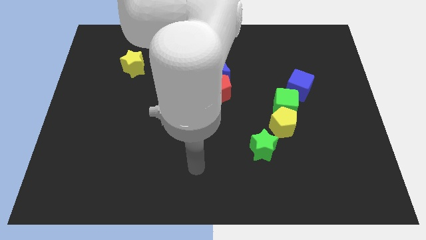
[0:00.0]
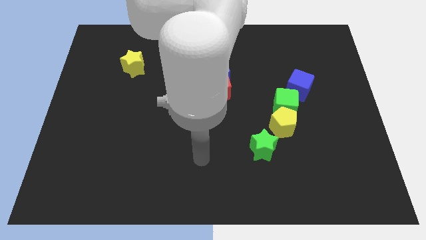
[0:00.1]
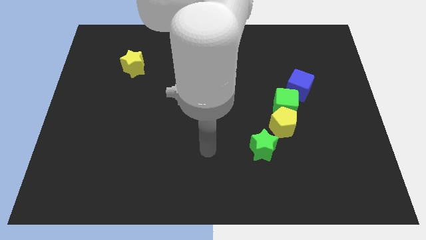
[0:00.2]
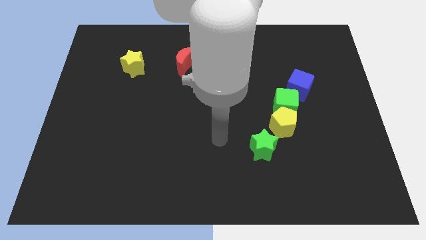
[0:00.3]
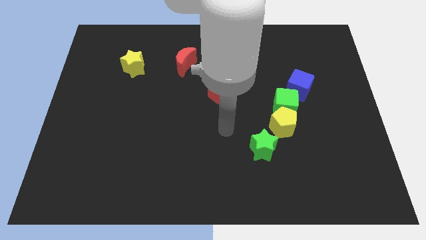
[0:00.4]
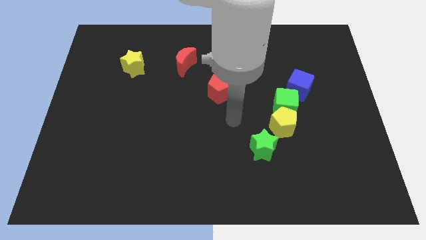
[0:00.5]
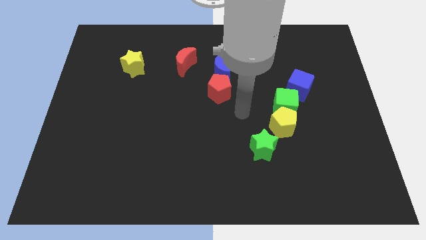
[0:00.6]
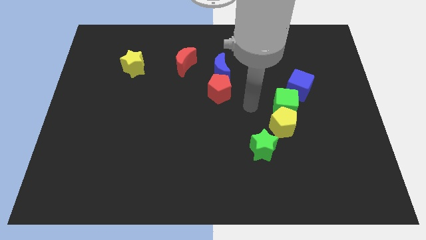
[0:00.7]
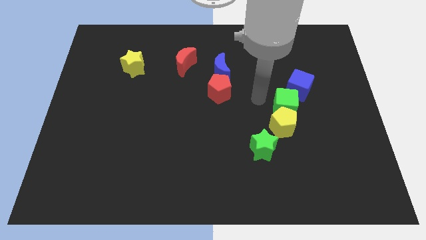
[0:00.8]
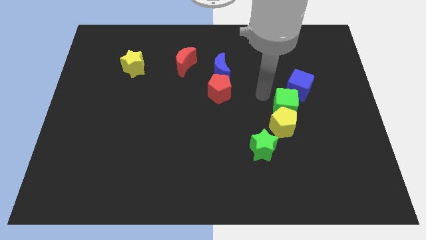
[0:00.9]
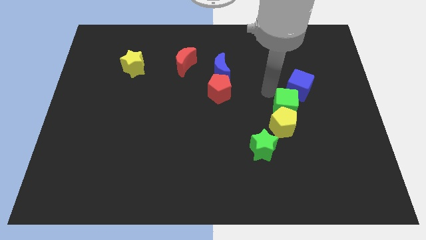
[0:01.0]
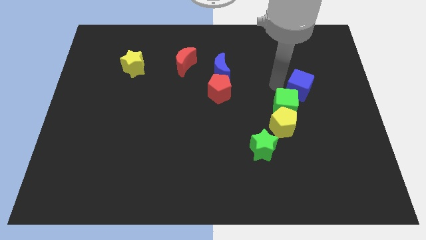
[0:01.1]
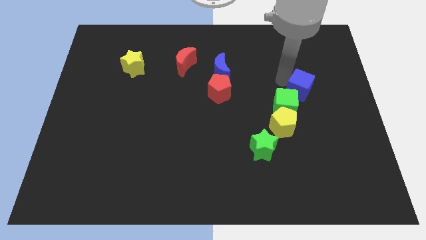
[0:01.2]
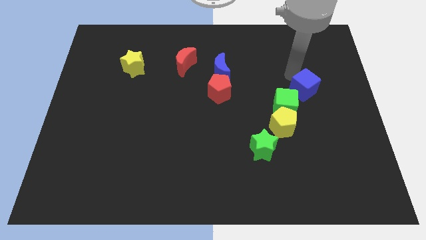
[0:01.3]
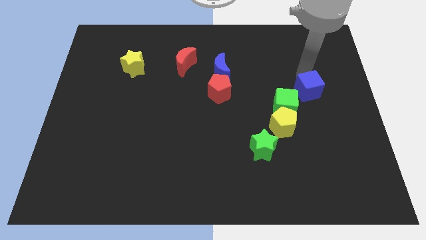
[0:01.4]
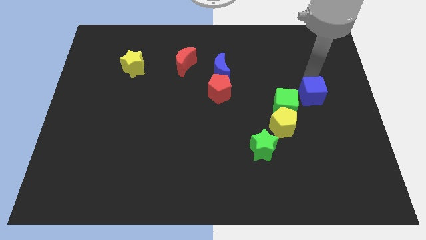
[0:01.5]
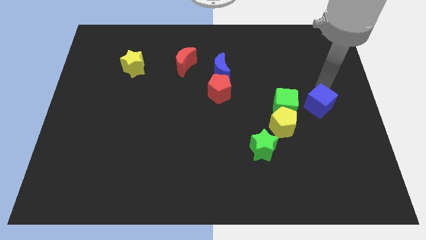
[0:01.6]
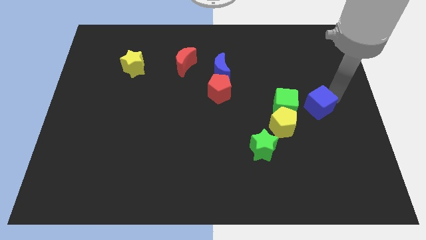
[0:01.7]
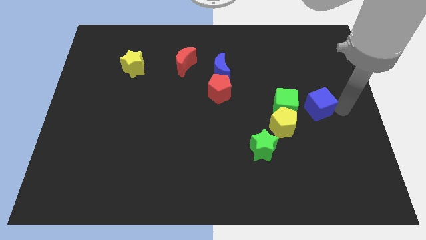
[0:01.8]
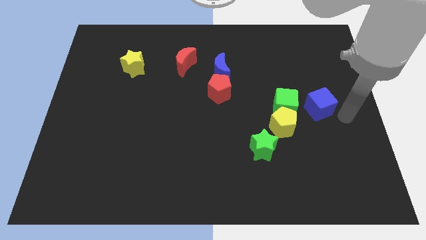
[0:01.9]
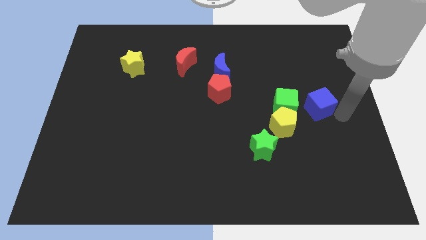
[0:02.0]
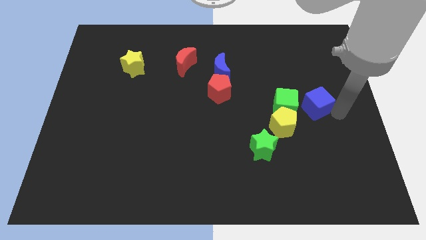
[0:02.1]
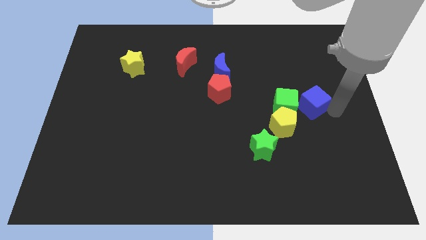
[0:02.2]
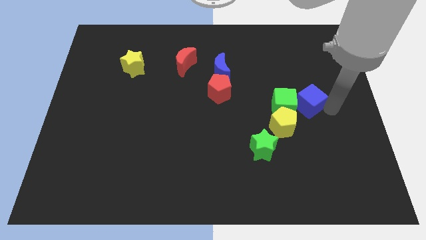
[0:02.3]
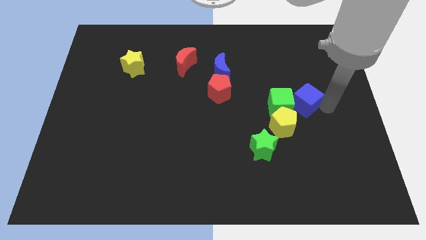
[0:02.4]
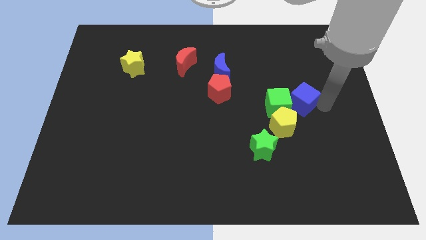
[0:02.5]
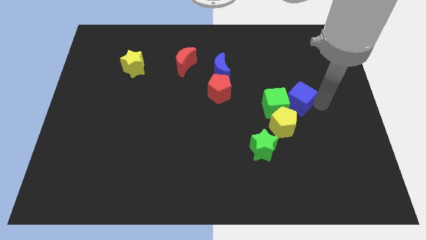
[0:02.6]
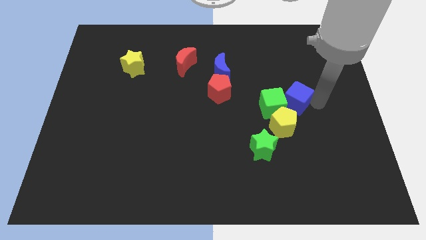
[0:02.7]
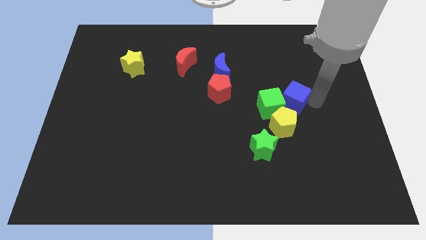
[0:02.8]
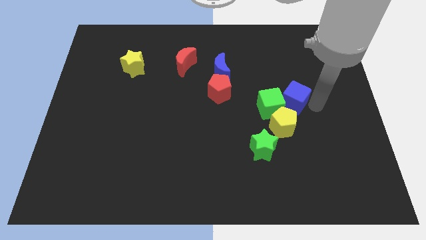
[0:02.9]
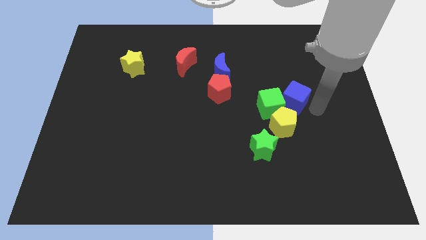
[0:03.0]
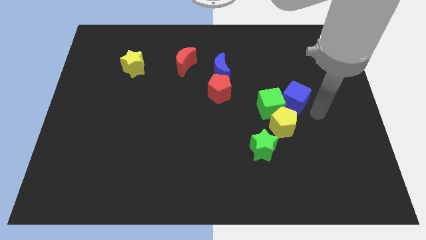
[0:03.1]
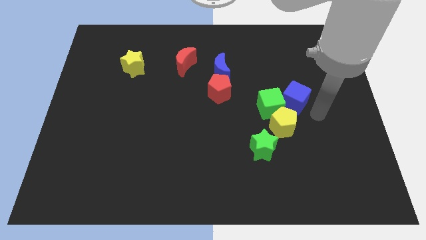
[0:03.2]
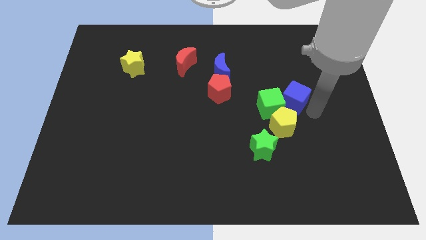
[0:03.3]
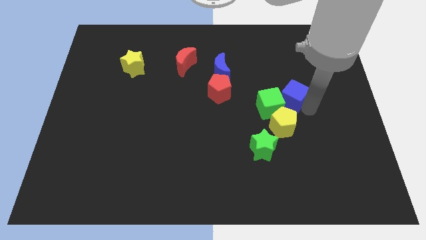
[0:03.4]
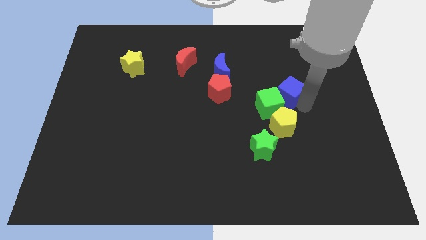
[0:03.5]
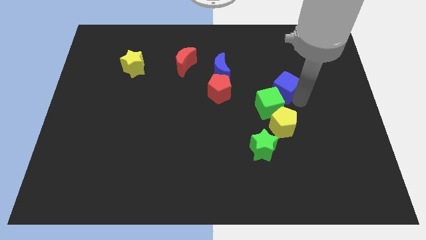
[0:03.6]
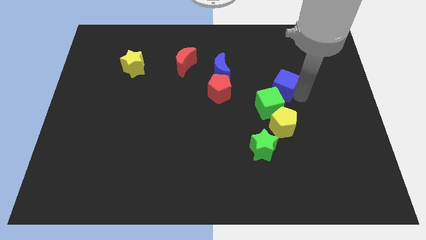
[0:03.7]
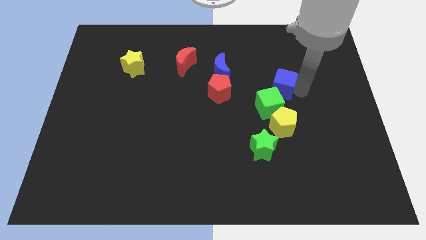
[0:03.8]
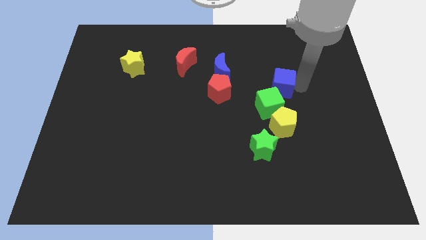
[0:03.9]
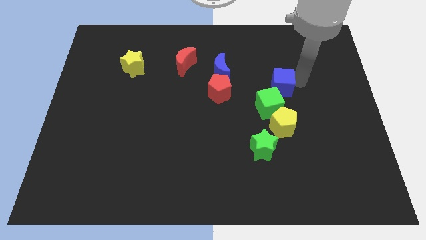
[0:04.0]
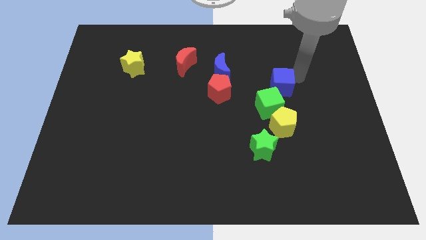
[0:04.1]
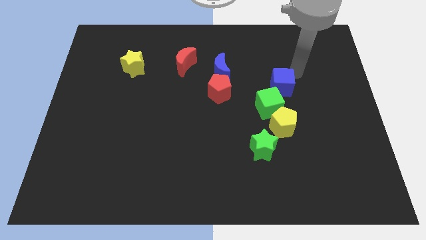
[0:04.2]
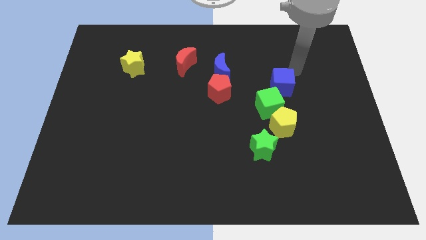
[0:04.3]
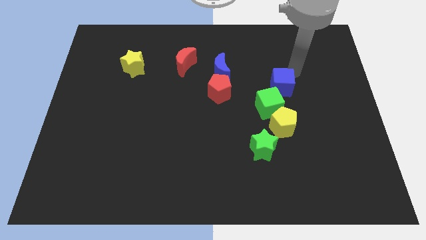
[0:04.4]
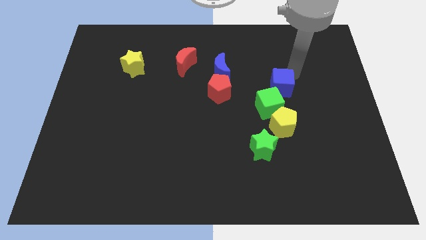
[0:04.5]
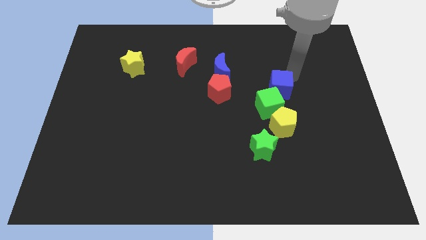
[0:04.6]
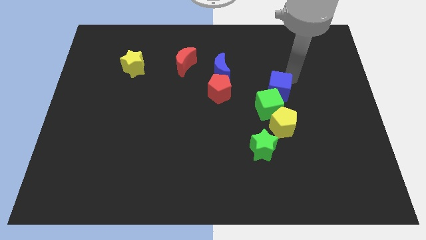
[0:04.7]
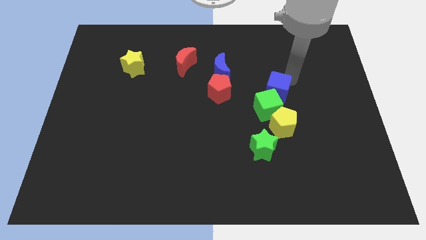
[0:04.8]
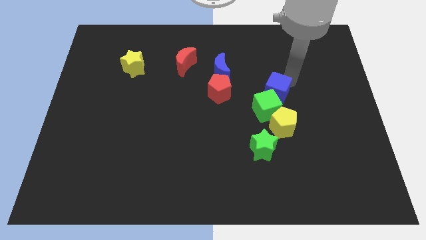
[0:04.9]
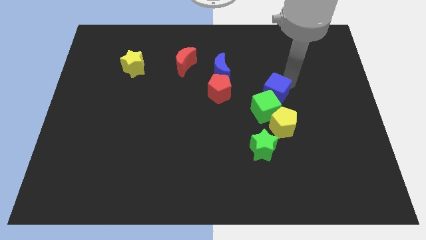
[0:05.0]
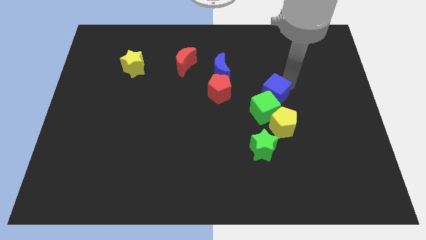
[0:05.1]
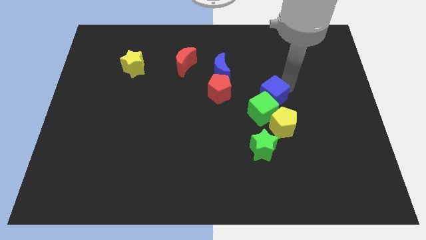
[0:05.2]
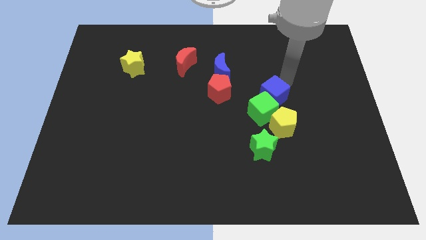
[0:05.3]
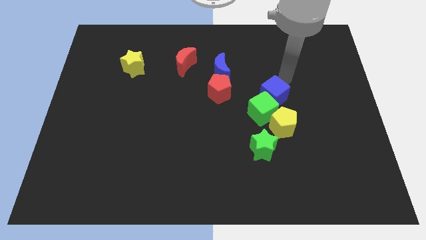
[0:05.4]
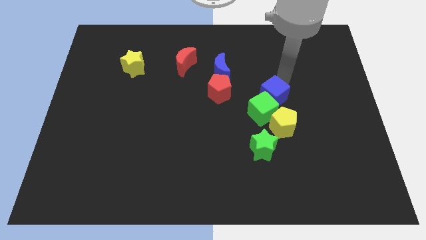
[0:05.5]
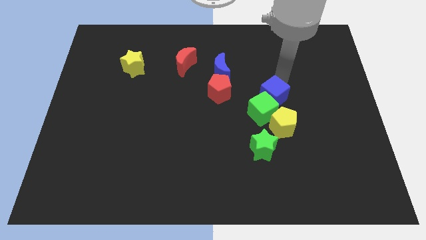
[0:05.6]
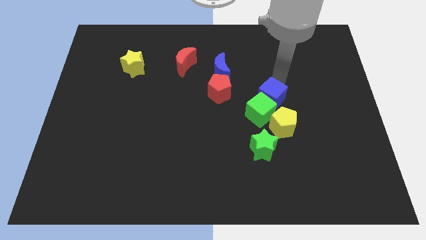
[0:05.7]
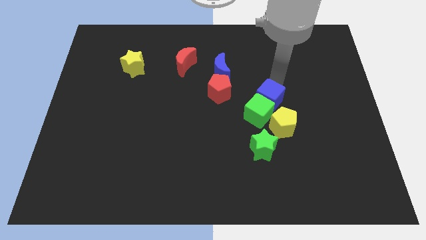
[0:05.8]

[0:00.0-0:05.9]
move the blue cube downwards and then to the left somewhat

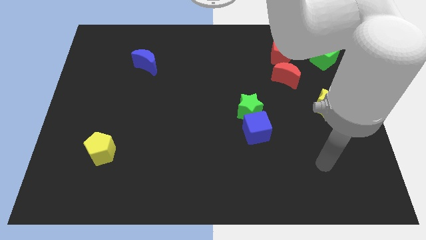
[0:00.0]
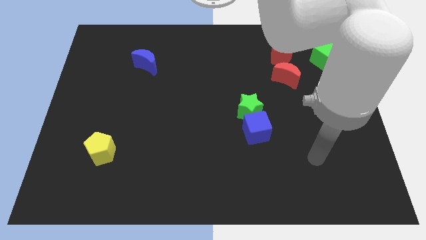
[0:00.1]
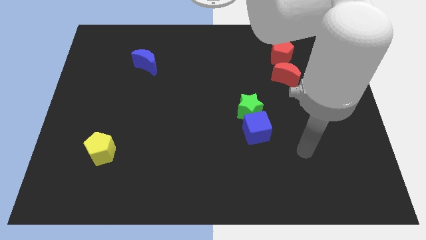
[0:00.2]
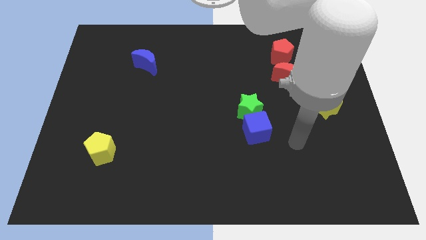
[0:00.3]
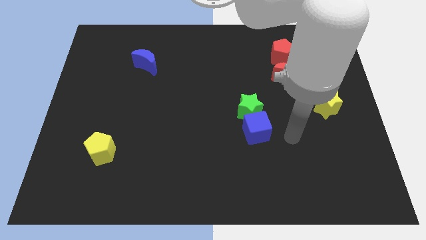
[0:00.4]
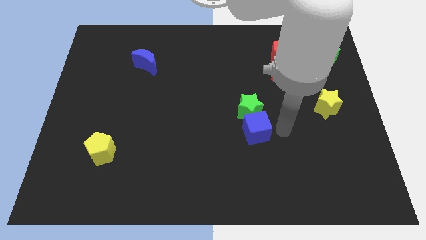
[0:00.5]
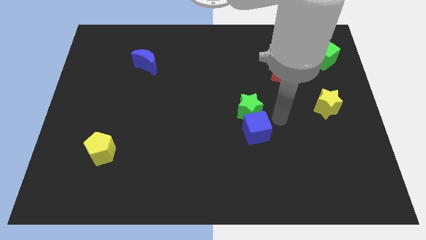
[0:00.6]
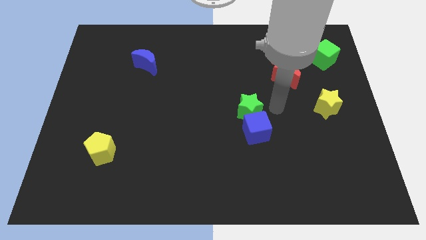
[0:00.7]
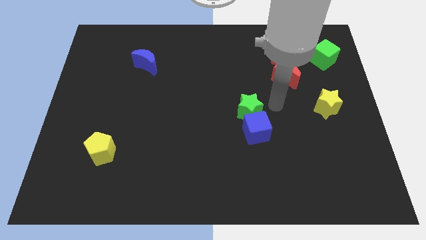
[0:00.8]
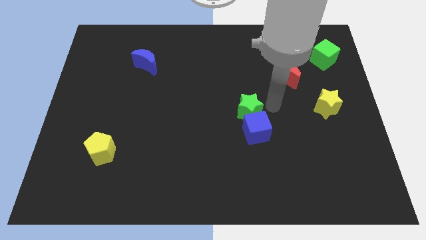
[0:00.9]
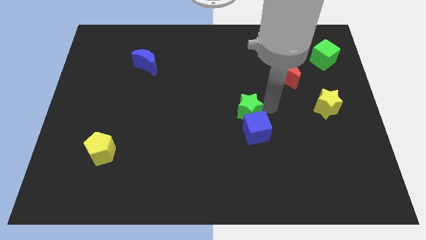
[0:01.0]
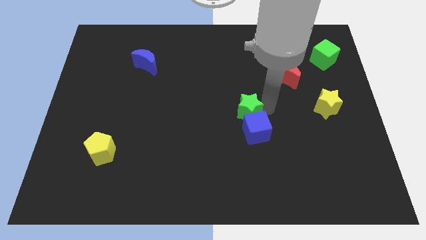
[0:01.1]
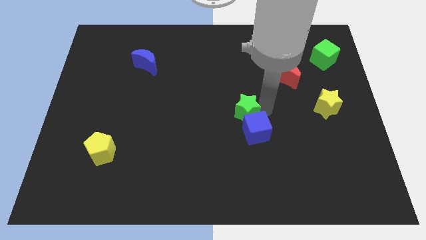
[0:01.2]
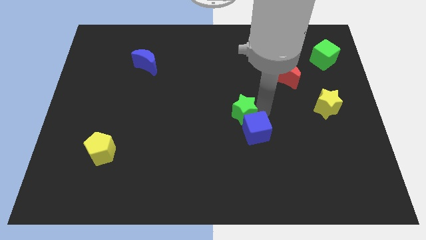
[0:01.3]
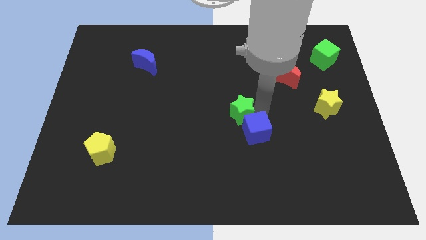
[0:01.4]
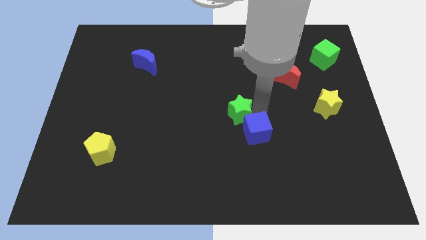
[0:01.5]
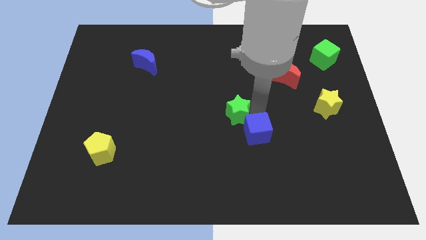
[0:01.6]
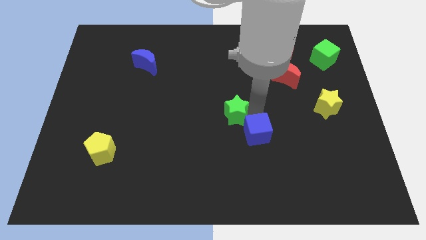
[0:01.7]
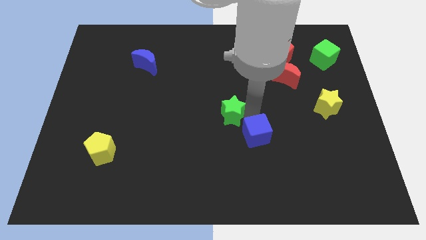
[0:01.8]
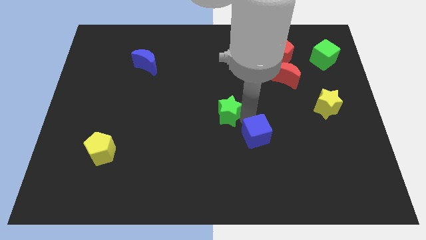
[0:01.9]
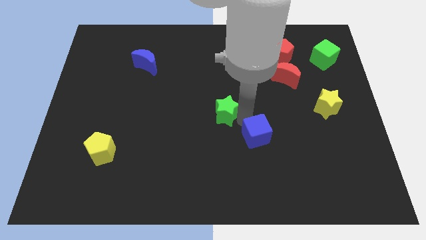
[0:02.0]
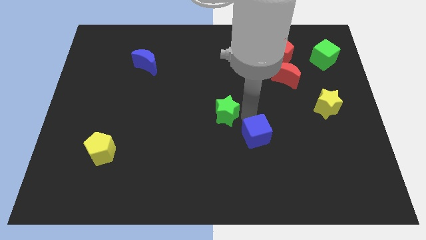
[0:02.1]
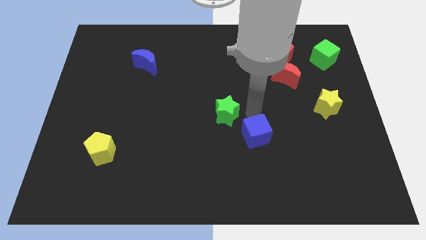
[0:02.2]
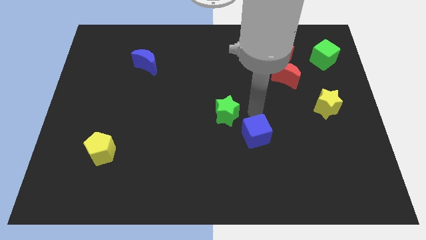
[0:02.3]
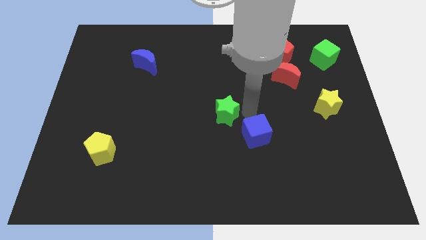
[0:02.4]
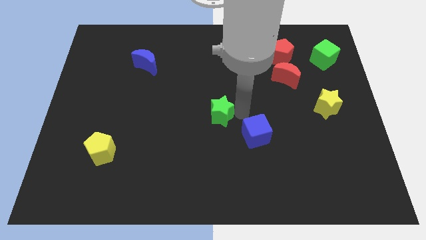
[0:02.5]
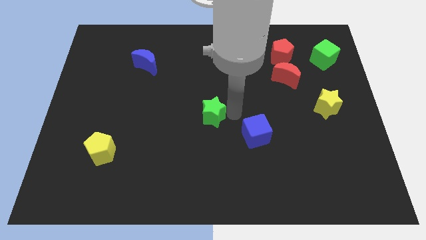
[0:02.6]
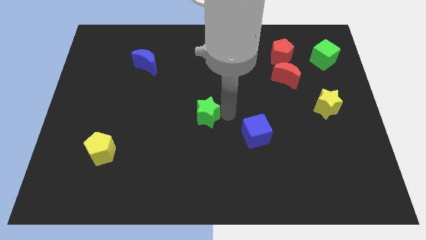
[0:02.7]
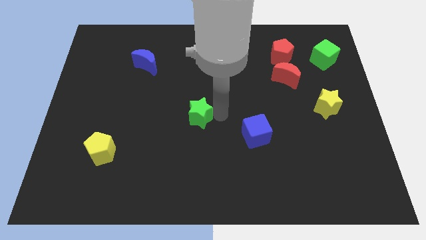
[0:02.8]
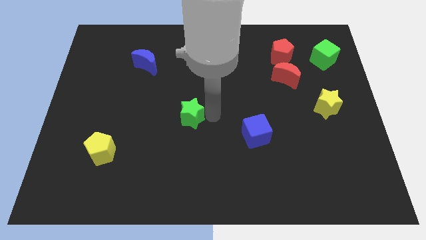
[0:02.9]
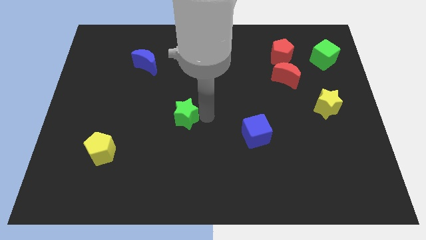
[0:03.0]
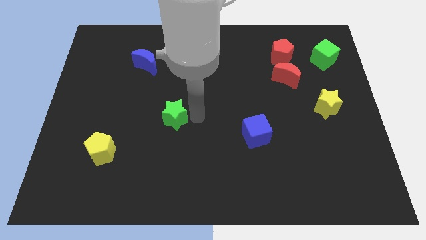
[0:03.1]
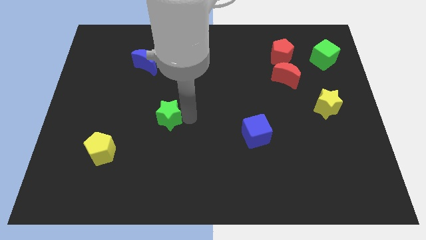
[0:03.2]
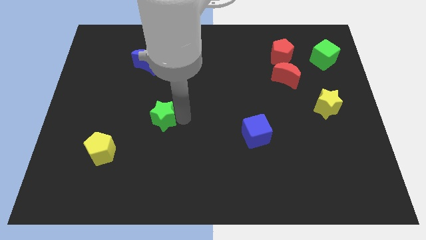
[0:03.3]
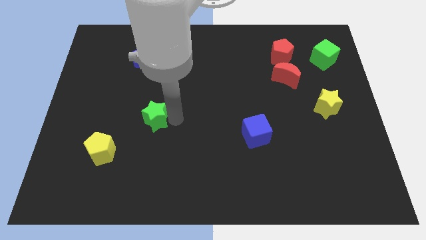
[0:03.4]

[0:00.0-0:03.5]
move the green star left
